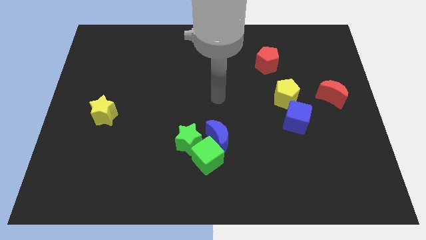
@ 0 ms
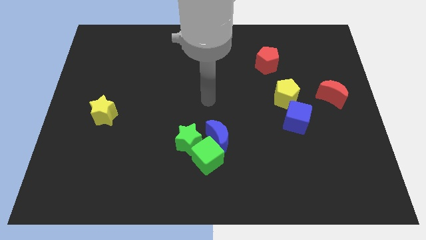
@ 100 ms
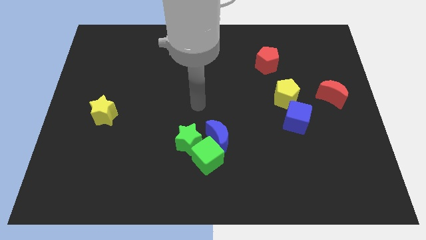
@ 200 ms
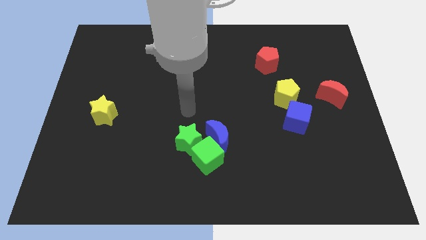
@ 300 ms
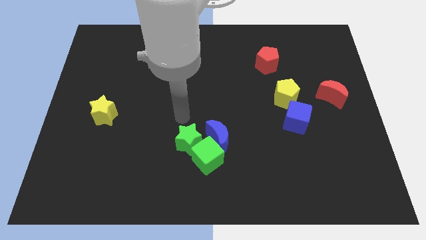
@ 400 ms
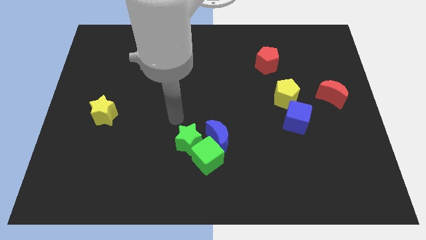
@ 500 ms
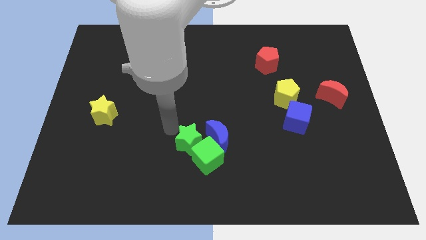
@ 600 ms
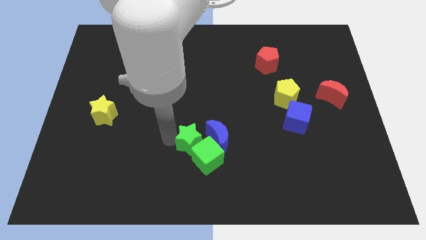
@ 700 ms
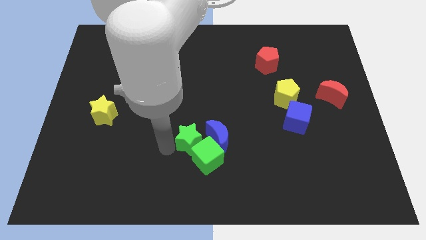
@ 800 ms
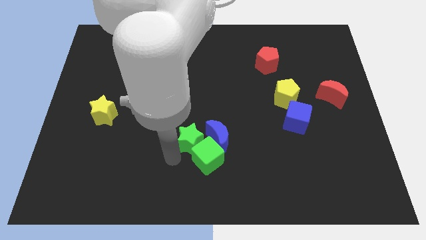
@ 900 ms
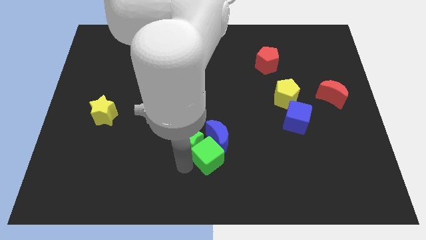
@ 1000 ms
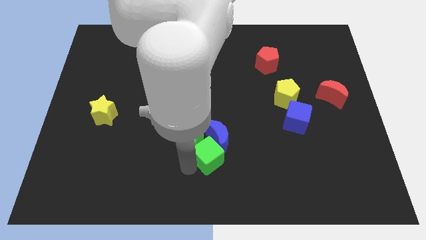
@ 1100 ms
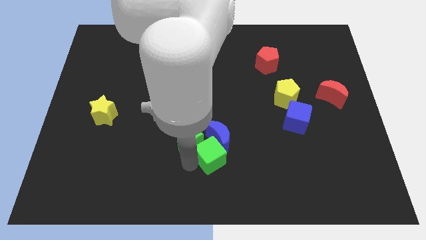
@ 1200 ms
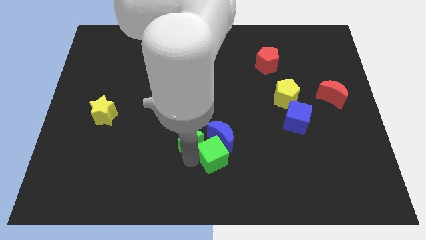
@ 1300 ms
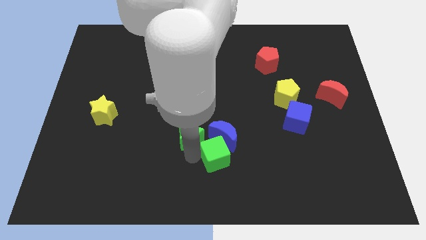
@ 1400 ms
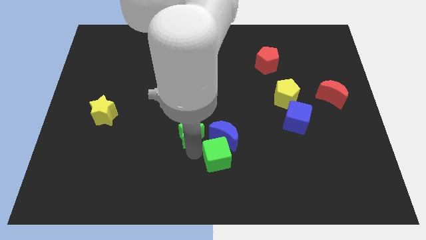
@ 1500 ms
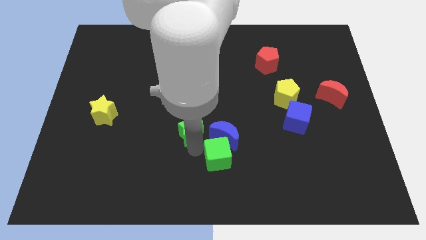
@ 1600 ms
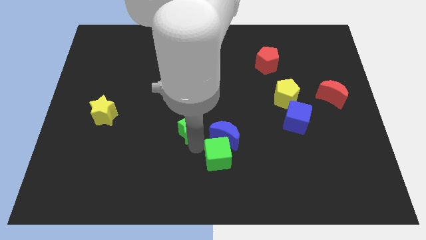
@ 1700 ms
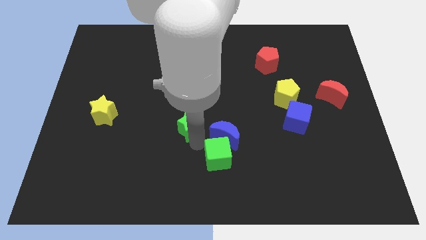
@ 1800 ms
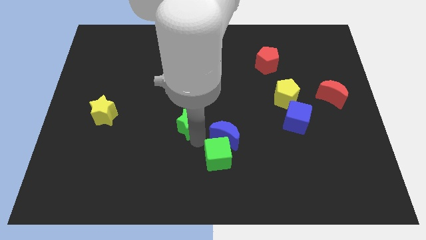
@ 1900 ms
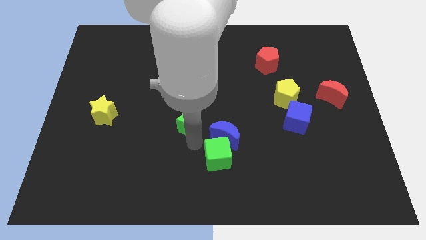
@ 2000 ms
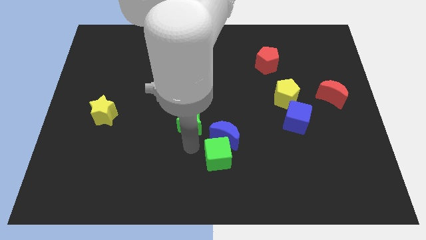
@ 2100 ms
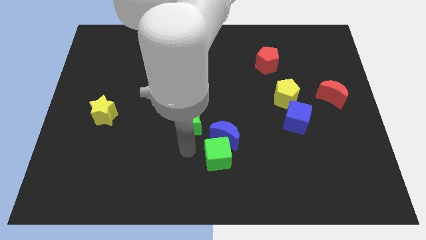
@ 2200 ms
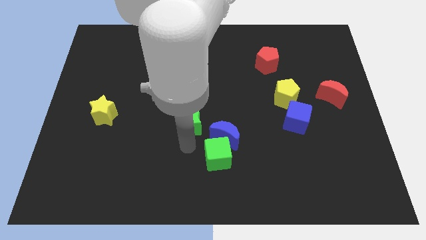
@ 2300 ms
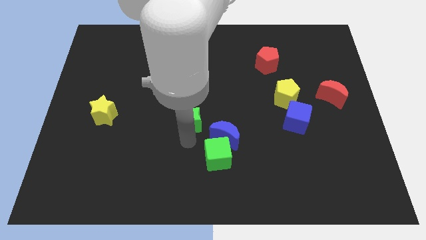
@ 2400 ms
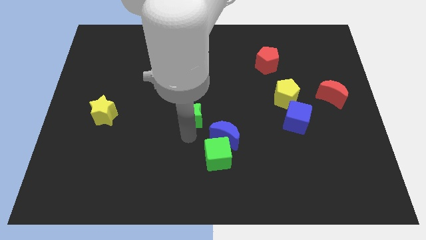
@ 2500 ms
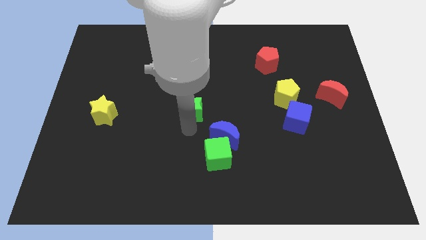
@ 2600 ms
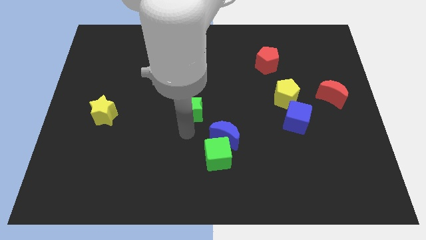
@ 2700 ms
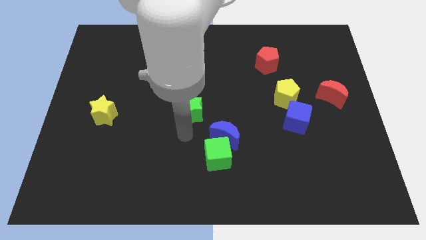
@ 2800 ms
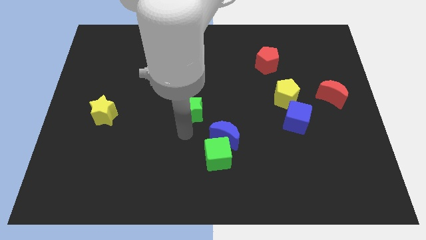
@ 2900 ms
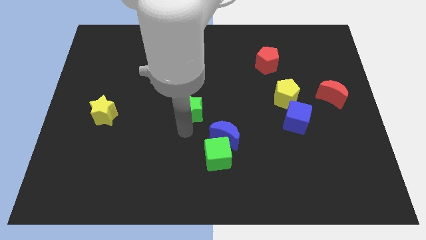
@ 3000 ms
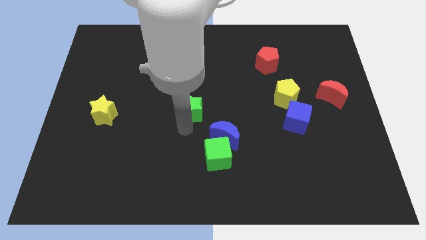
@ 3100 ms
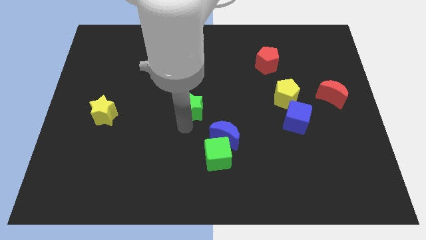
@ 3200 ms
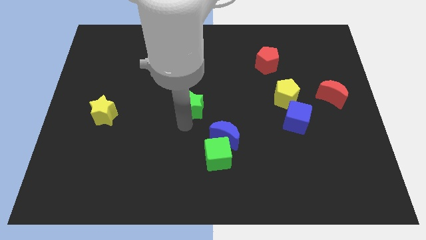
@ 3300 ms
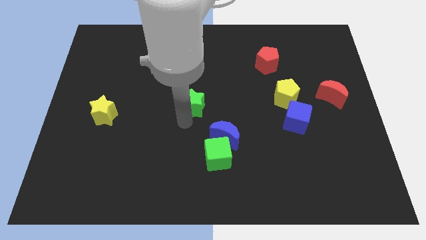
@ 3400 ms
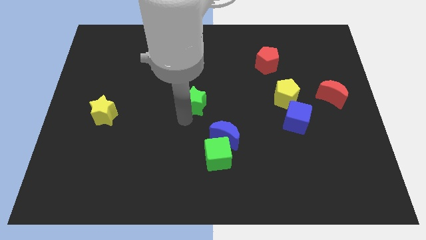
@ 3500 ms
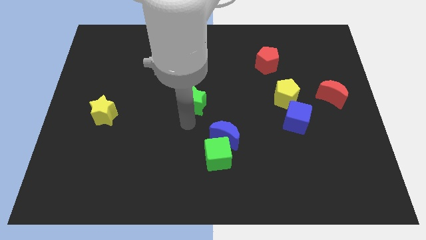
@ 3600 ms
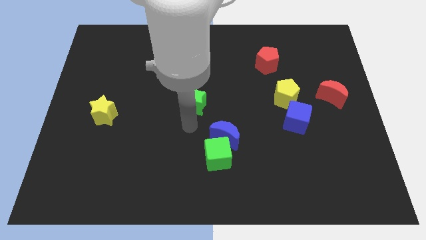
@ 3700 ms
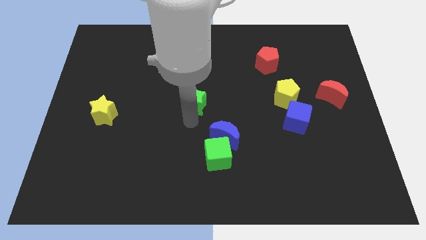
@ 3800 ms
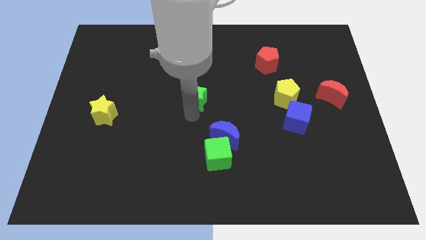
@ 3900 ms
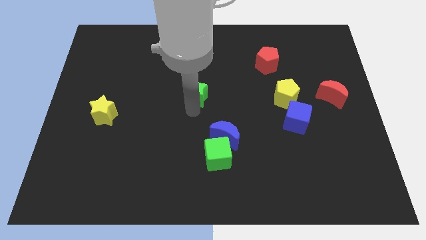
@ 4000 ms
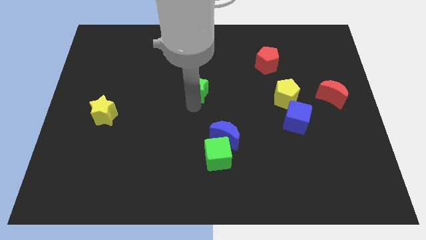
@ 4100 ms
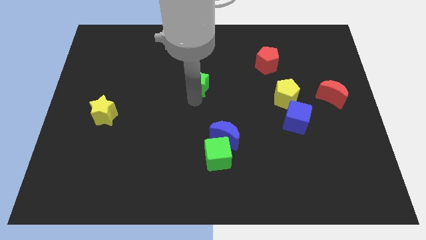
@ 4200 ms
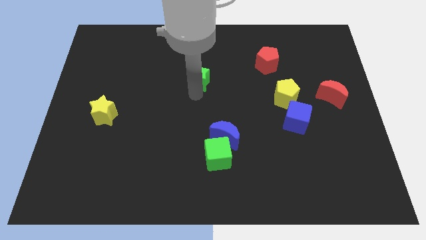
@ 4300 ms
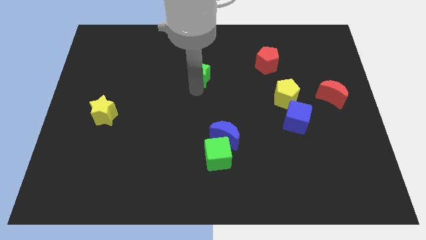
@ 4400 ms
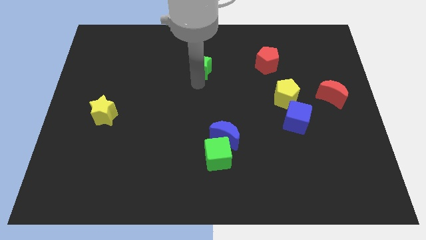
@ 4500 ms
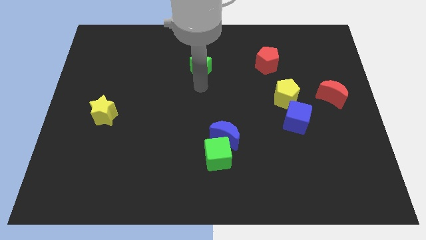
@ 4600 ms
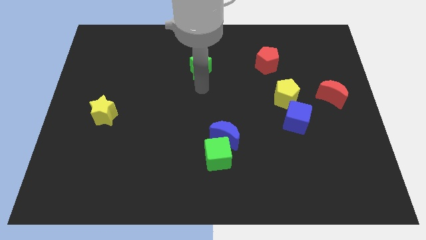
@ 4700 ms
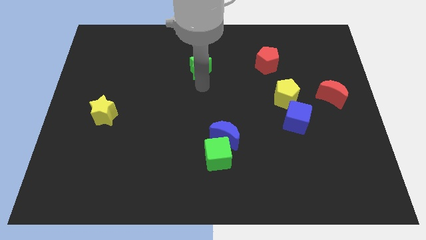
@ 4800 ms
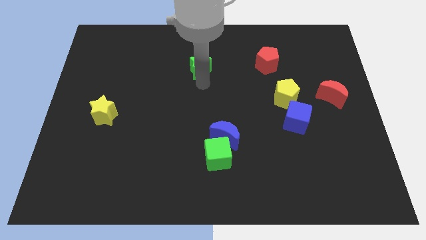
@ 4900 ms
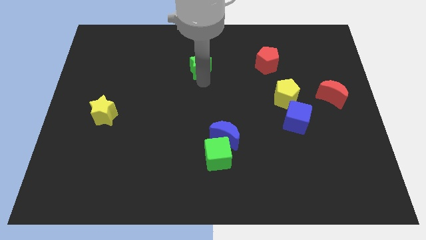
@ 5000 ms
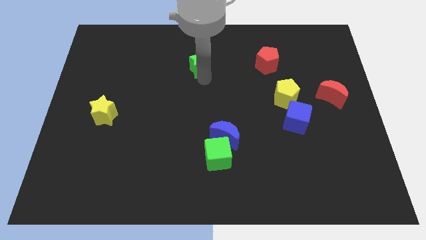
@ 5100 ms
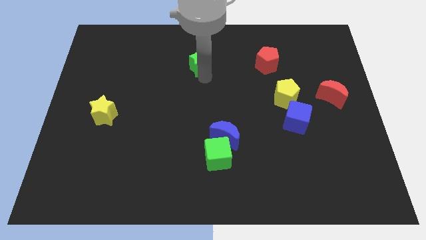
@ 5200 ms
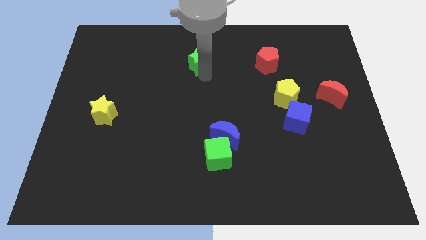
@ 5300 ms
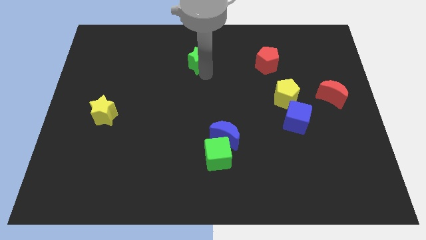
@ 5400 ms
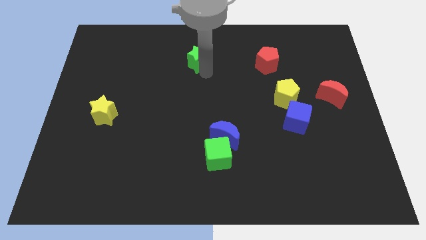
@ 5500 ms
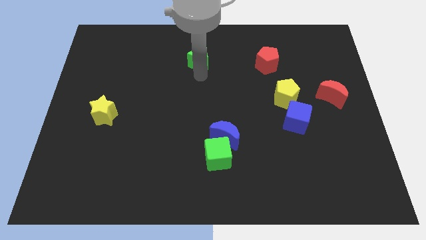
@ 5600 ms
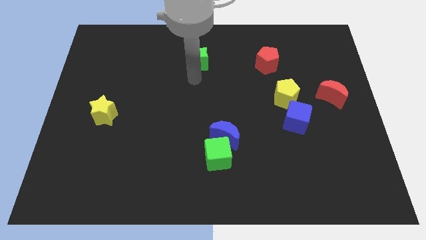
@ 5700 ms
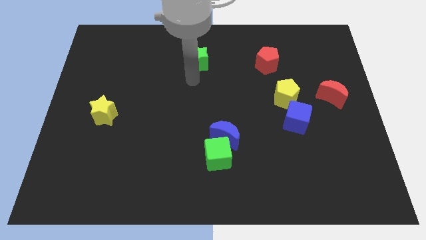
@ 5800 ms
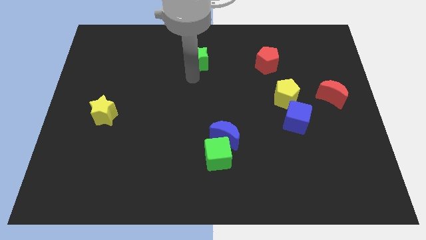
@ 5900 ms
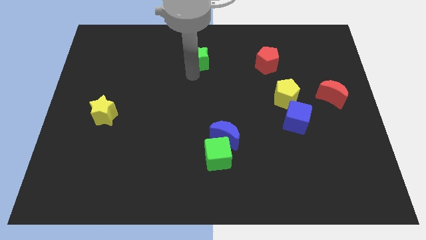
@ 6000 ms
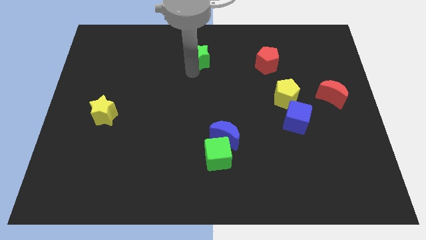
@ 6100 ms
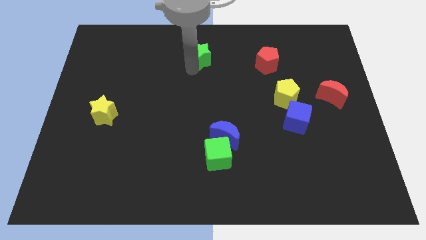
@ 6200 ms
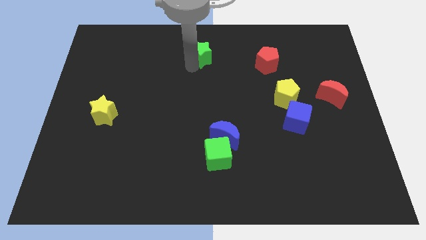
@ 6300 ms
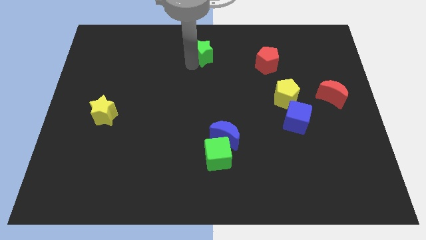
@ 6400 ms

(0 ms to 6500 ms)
push the green star to the top side
